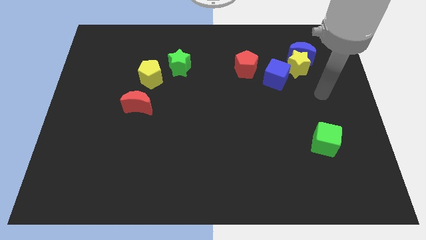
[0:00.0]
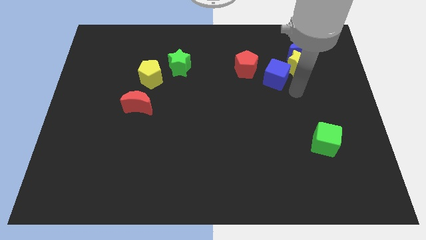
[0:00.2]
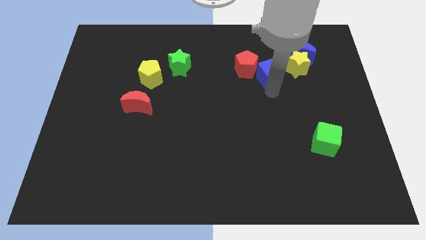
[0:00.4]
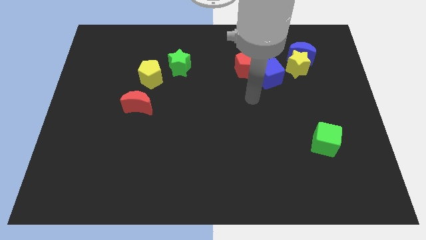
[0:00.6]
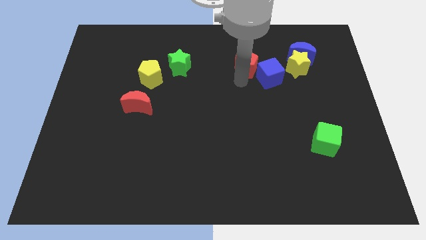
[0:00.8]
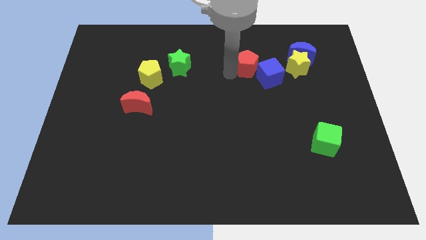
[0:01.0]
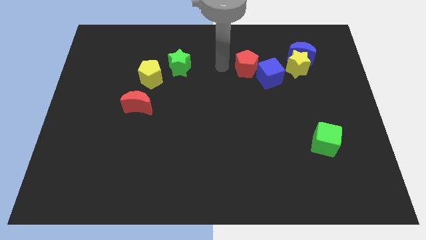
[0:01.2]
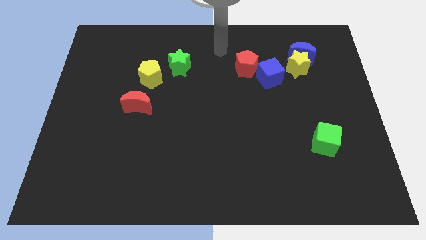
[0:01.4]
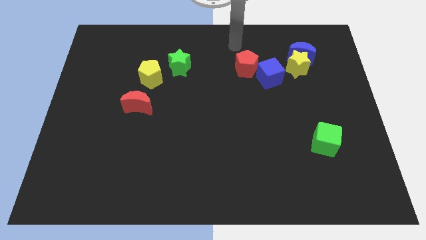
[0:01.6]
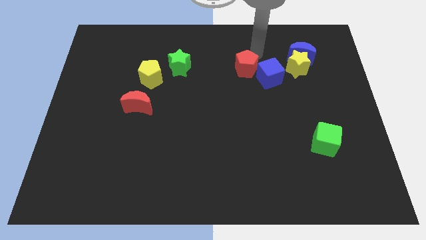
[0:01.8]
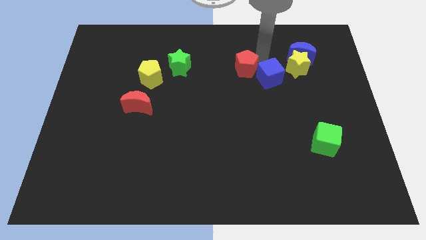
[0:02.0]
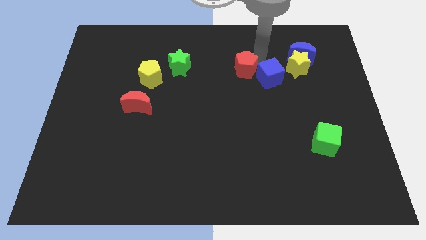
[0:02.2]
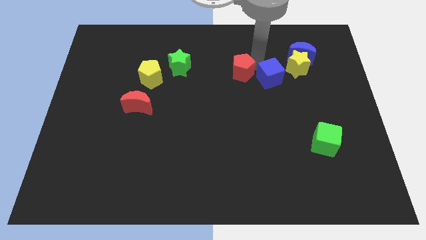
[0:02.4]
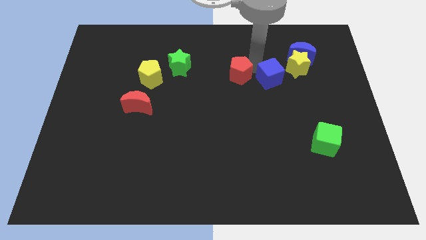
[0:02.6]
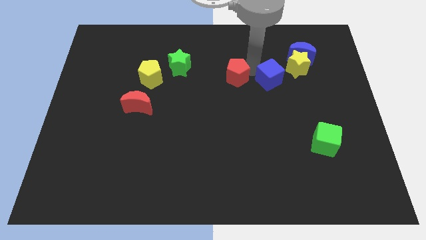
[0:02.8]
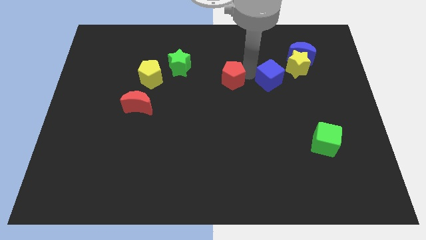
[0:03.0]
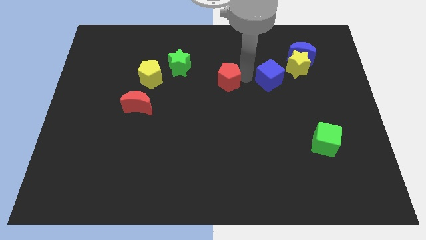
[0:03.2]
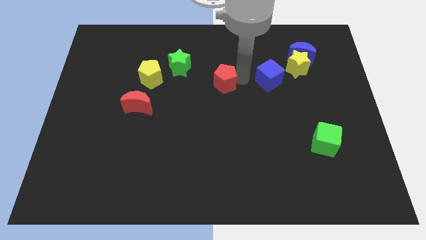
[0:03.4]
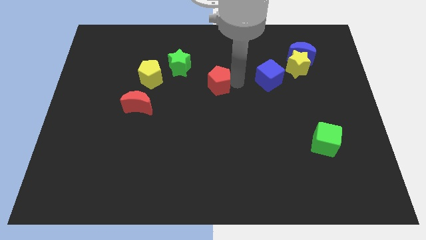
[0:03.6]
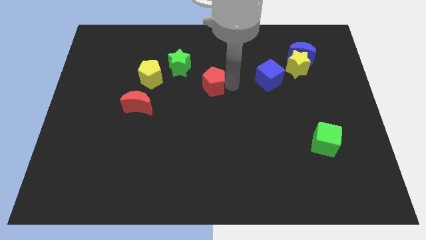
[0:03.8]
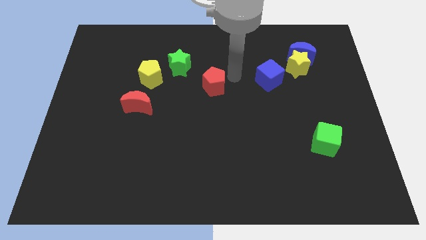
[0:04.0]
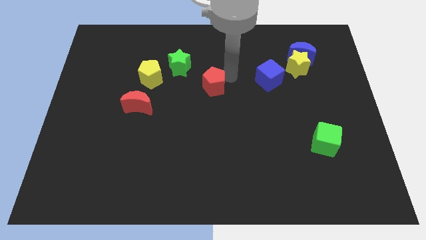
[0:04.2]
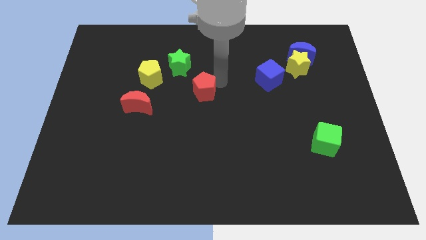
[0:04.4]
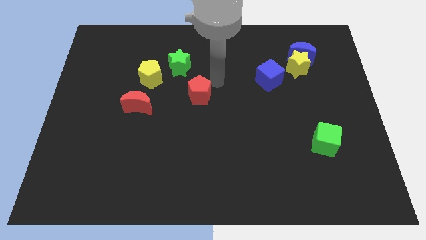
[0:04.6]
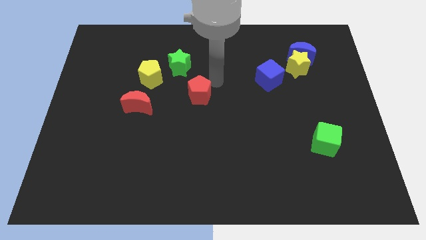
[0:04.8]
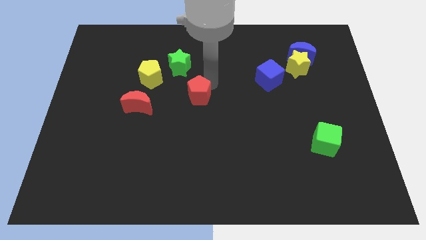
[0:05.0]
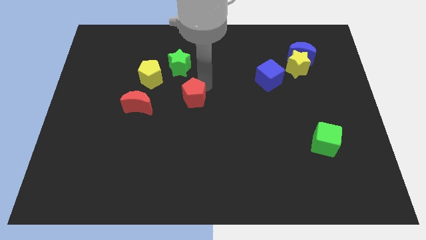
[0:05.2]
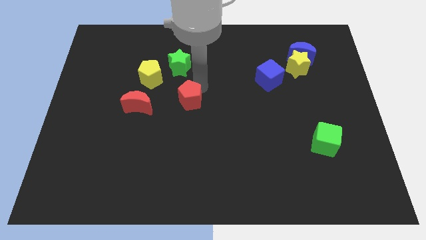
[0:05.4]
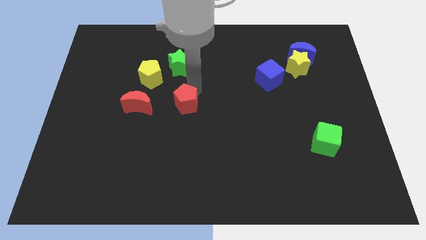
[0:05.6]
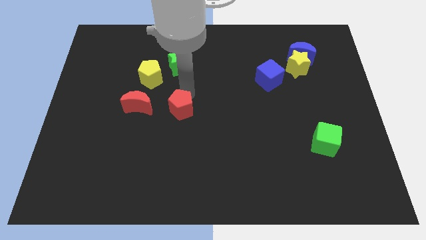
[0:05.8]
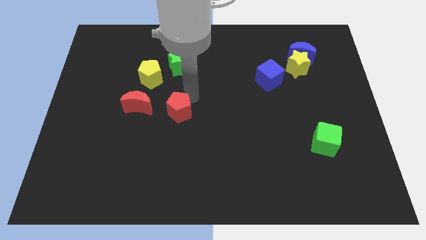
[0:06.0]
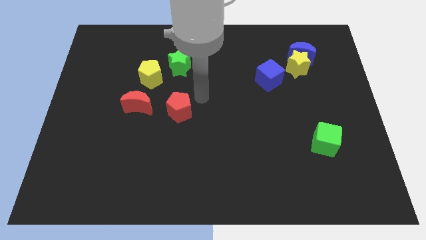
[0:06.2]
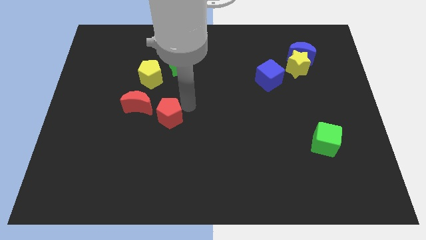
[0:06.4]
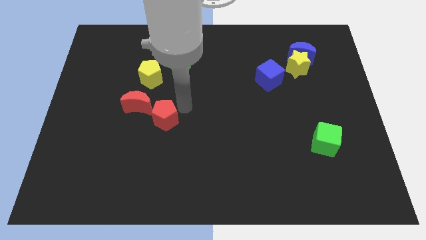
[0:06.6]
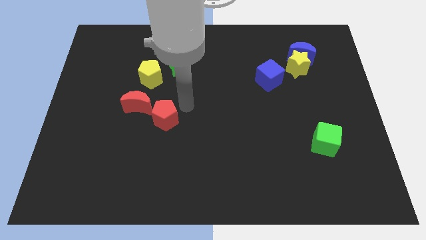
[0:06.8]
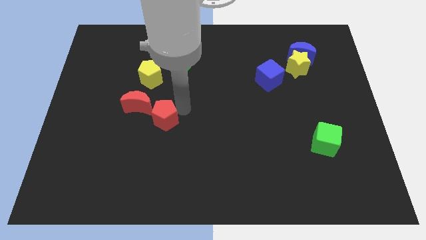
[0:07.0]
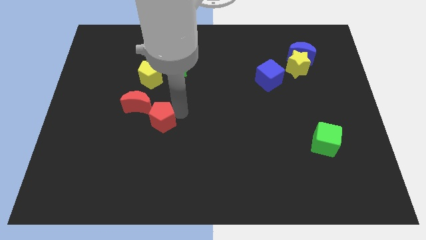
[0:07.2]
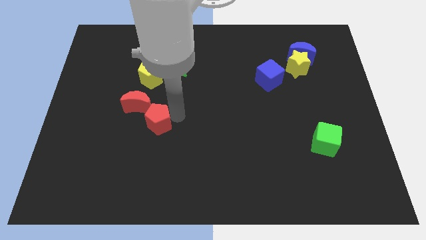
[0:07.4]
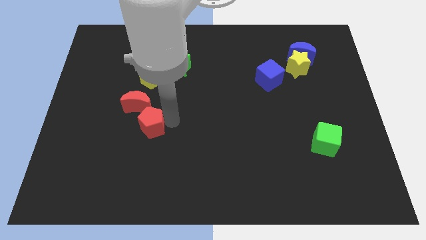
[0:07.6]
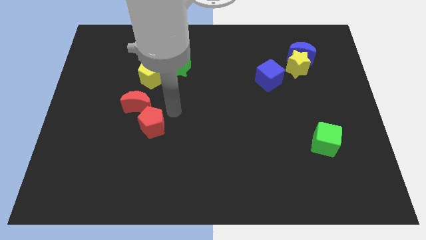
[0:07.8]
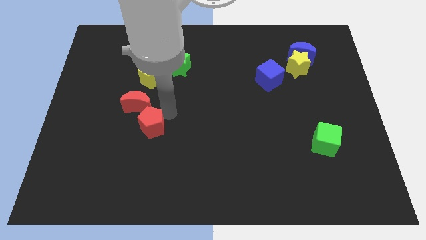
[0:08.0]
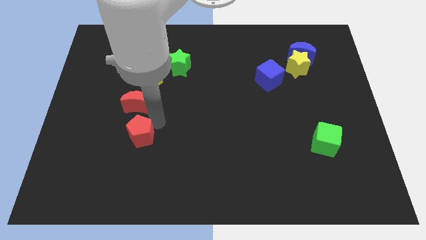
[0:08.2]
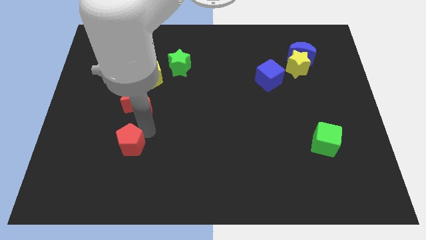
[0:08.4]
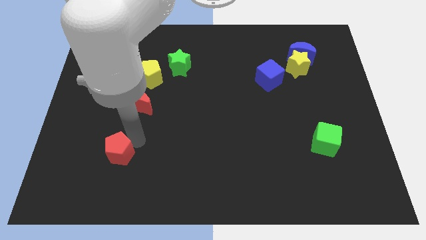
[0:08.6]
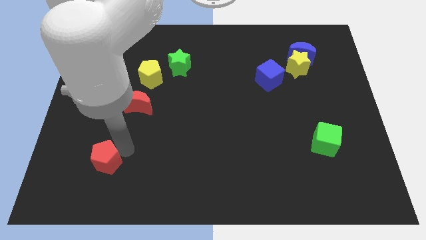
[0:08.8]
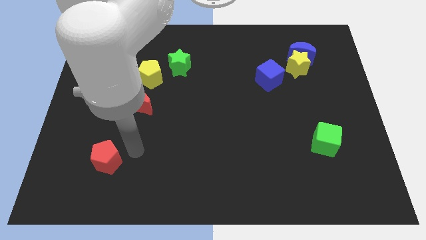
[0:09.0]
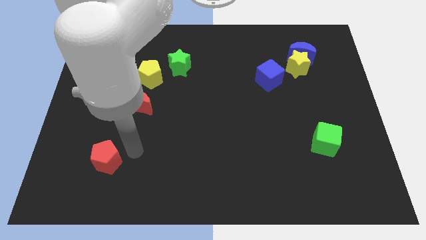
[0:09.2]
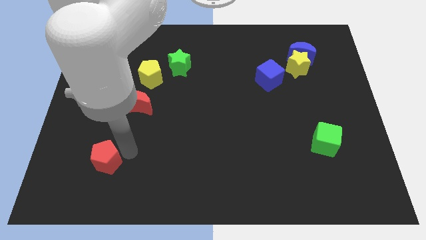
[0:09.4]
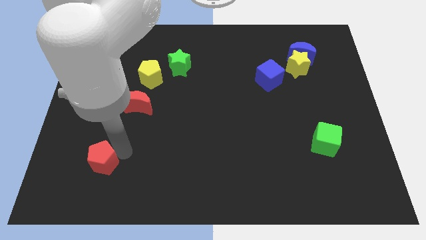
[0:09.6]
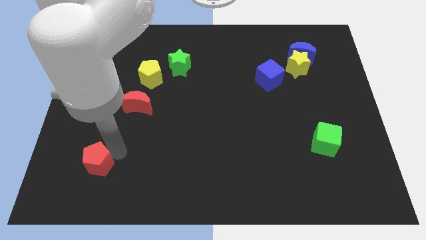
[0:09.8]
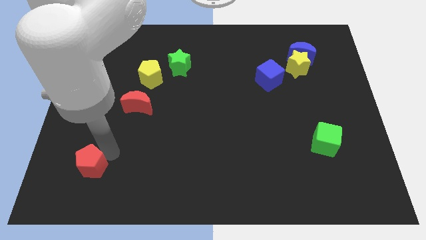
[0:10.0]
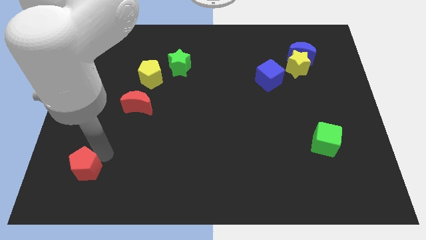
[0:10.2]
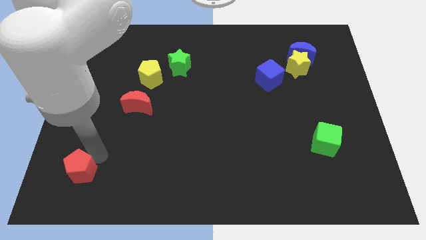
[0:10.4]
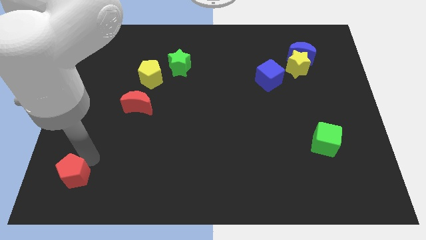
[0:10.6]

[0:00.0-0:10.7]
push the red pentagon to the bottom left corner

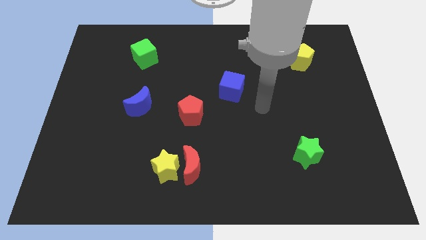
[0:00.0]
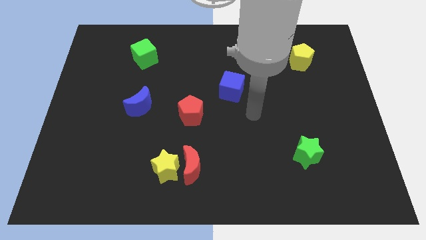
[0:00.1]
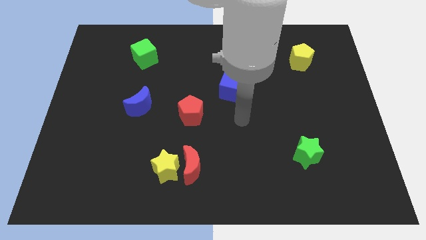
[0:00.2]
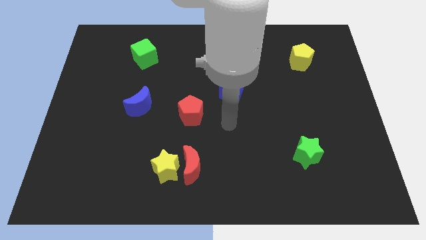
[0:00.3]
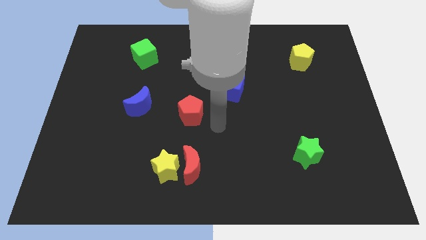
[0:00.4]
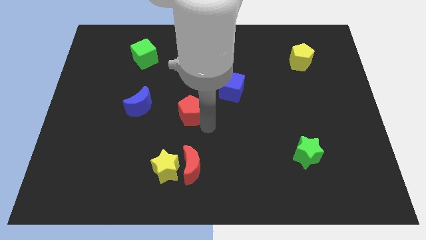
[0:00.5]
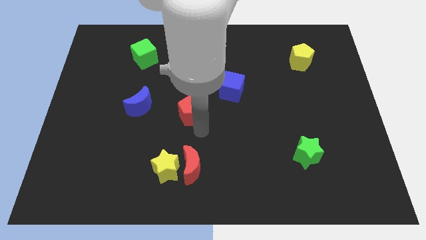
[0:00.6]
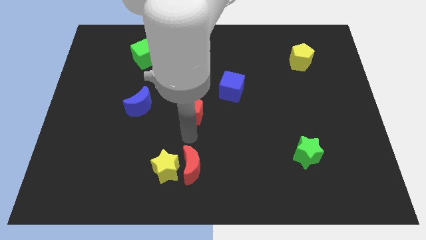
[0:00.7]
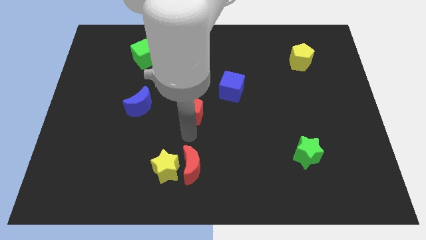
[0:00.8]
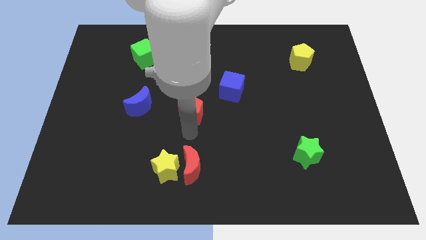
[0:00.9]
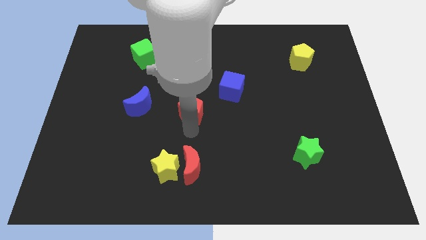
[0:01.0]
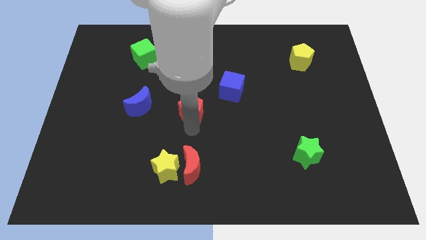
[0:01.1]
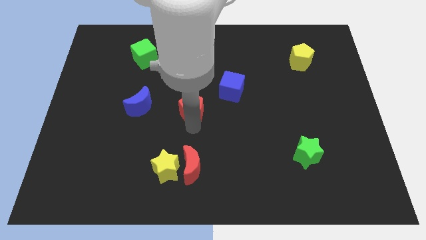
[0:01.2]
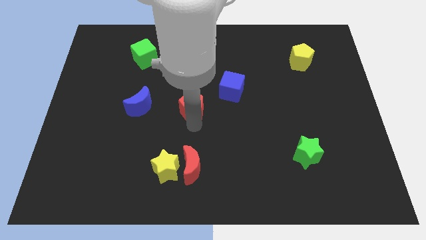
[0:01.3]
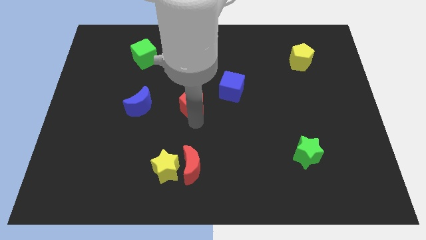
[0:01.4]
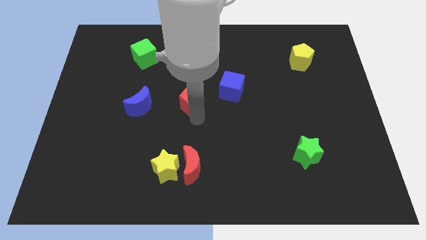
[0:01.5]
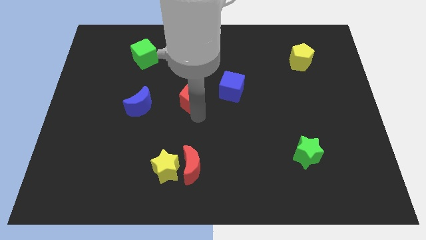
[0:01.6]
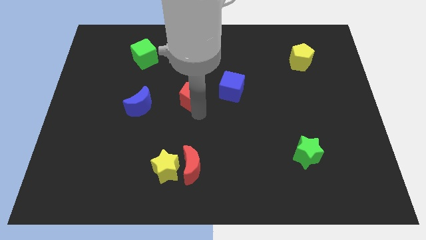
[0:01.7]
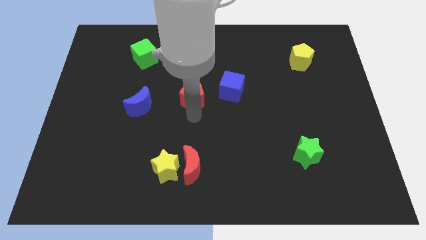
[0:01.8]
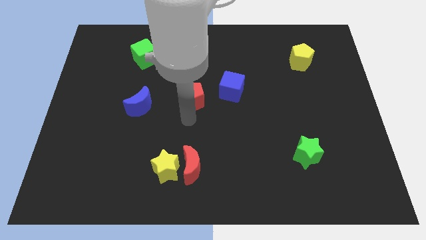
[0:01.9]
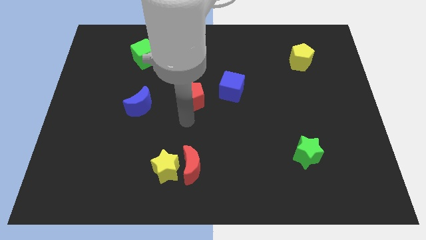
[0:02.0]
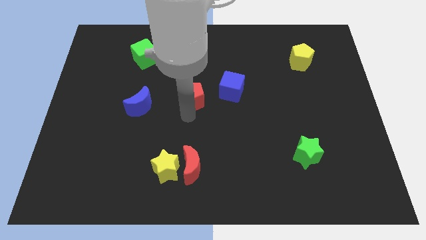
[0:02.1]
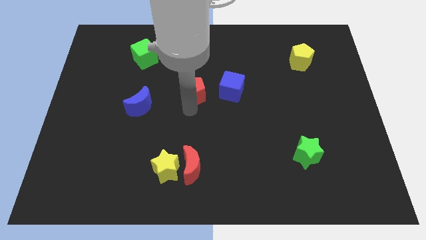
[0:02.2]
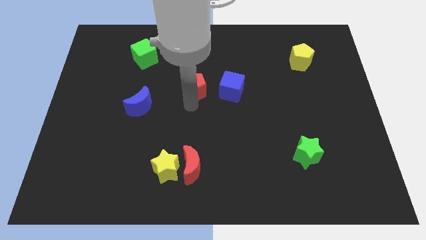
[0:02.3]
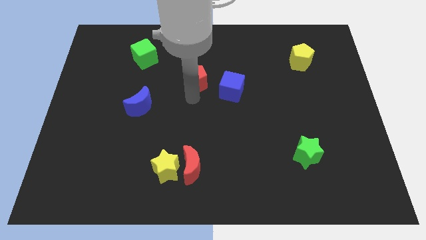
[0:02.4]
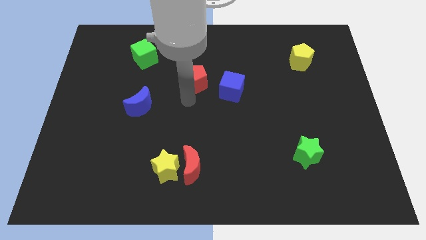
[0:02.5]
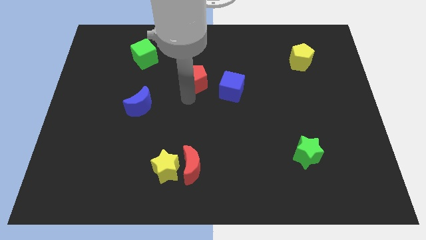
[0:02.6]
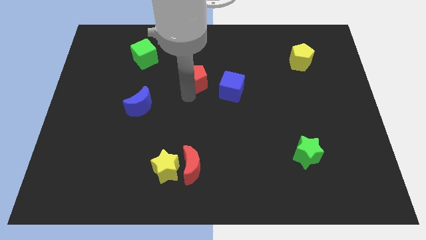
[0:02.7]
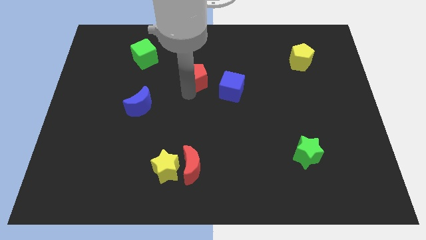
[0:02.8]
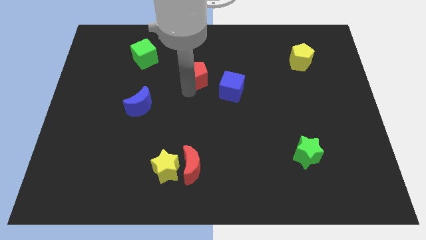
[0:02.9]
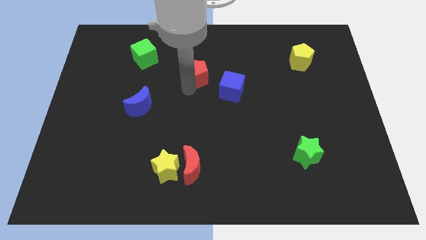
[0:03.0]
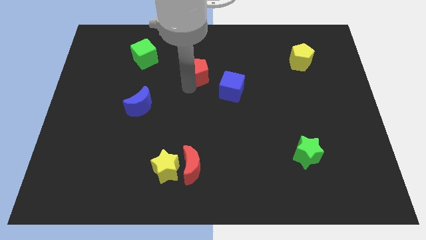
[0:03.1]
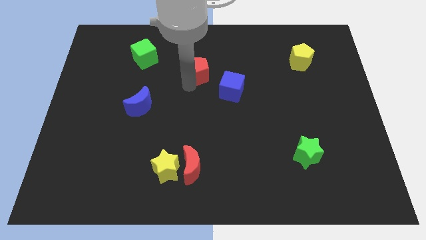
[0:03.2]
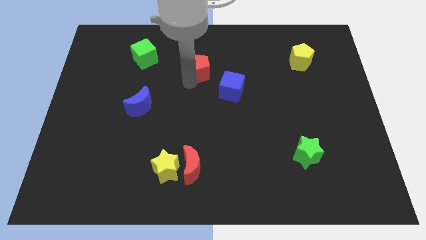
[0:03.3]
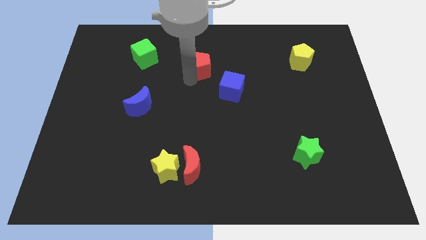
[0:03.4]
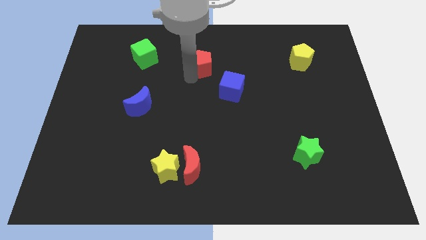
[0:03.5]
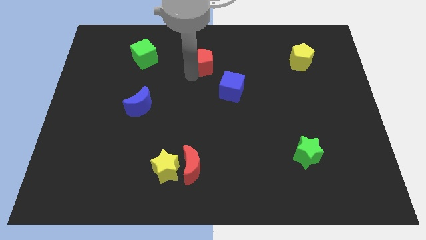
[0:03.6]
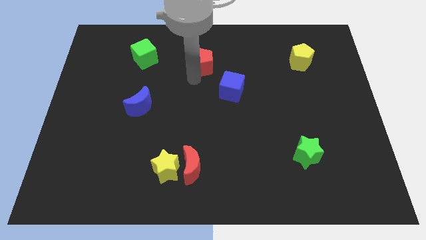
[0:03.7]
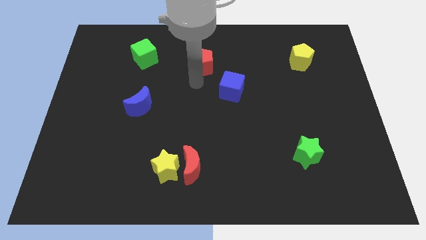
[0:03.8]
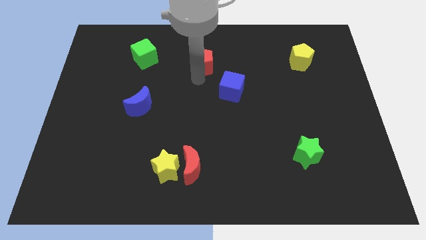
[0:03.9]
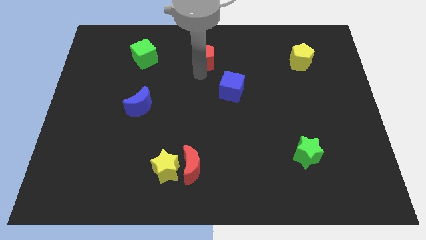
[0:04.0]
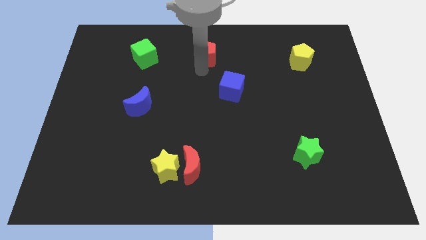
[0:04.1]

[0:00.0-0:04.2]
push the red pentagon to the top side
